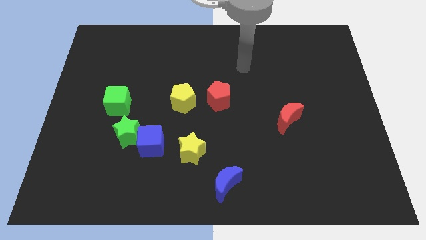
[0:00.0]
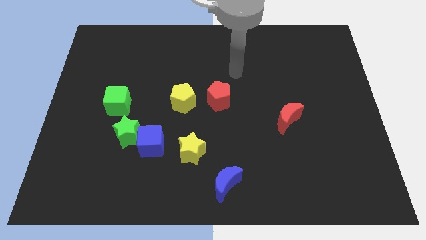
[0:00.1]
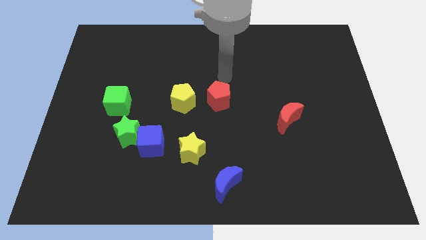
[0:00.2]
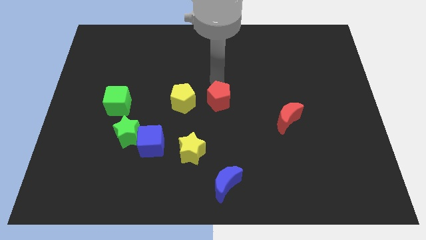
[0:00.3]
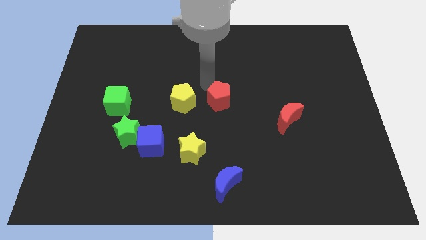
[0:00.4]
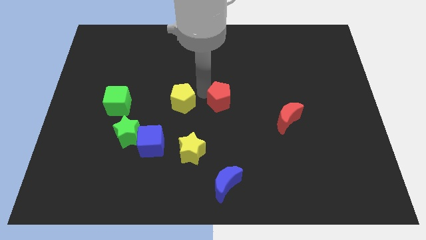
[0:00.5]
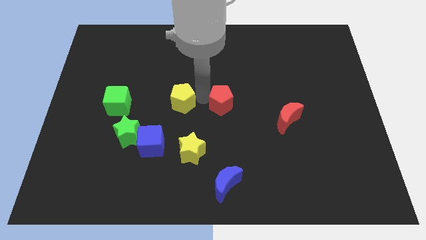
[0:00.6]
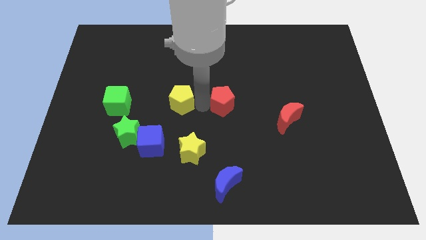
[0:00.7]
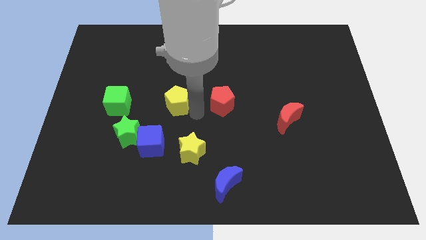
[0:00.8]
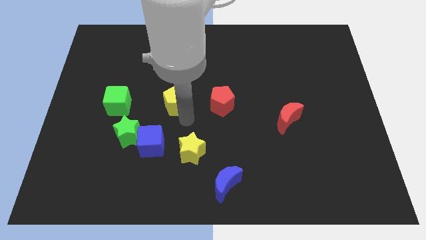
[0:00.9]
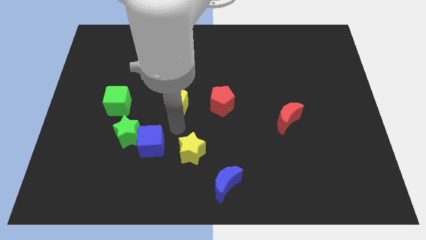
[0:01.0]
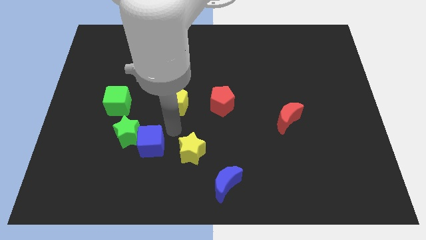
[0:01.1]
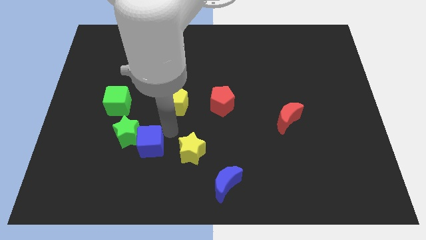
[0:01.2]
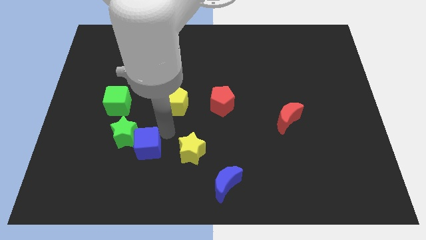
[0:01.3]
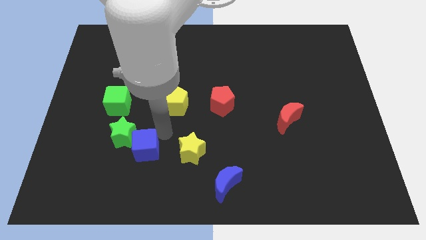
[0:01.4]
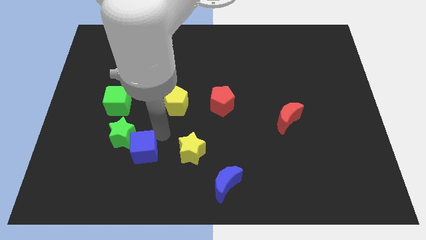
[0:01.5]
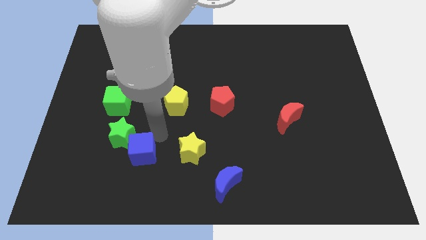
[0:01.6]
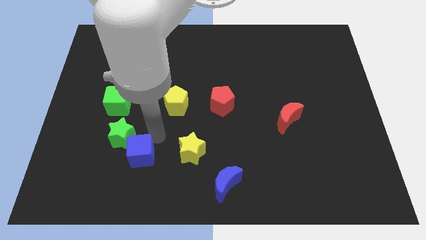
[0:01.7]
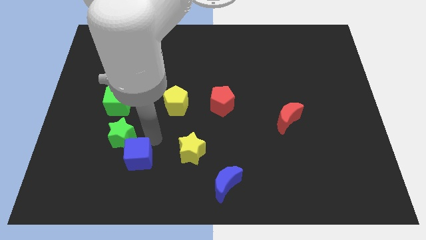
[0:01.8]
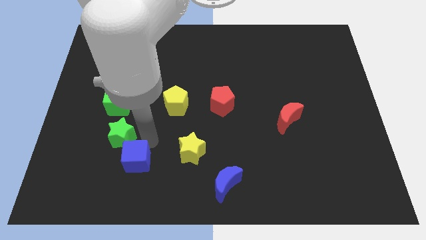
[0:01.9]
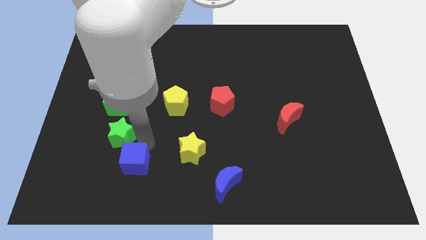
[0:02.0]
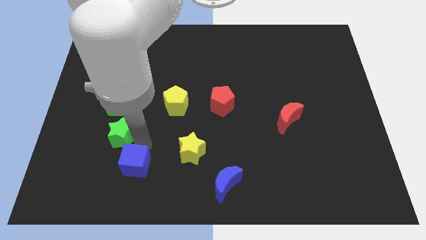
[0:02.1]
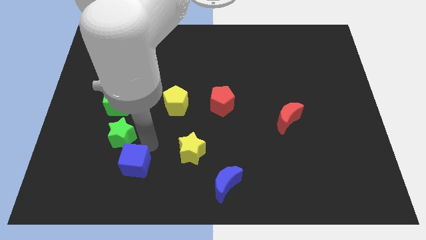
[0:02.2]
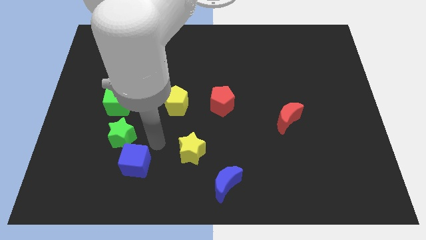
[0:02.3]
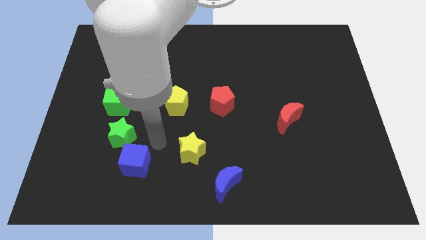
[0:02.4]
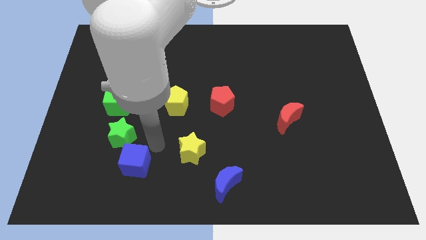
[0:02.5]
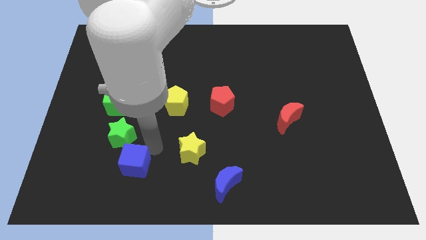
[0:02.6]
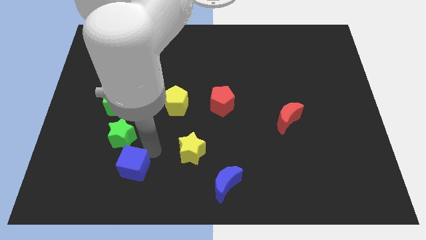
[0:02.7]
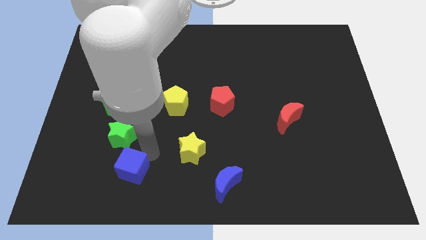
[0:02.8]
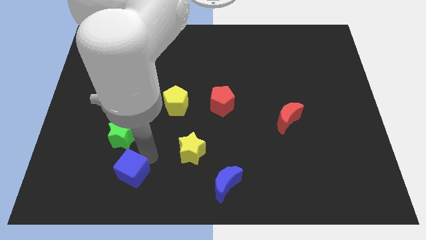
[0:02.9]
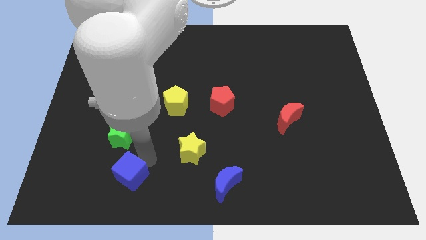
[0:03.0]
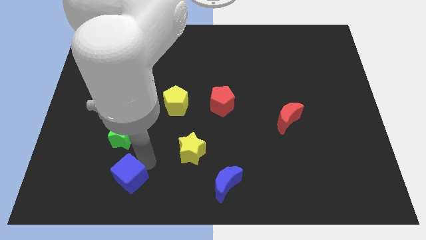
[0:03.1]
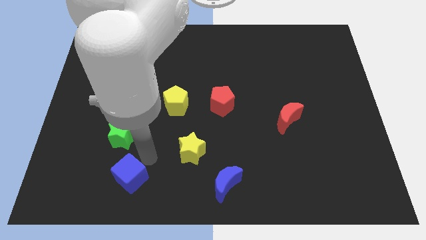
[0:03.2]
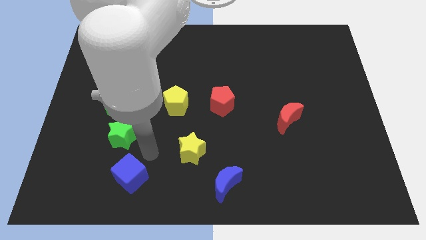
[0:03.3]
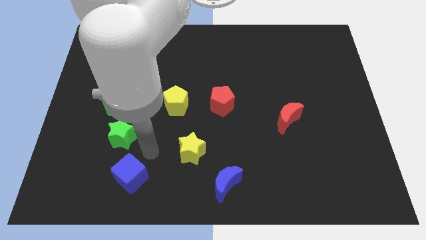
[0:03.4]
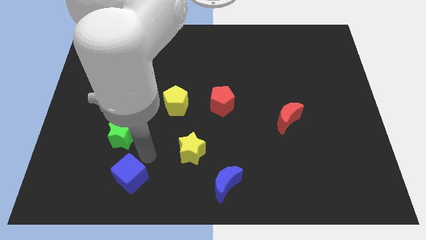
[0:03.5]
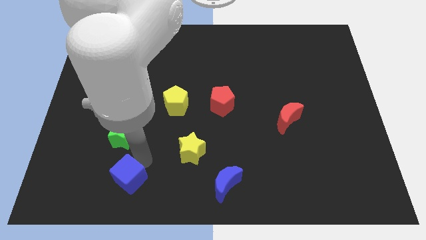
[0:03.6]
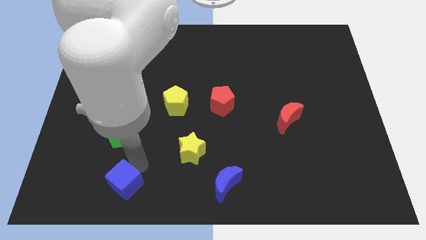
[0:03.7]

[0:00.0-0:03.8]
pull the blue cube apart from the green star and yellow star

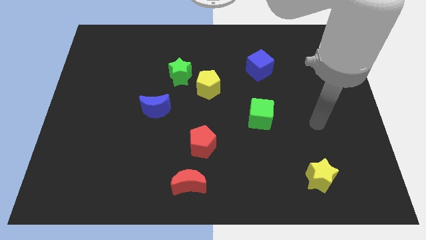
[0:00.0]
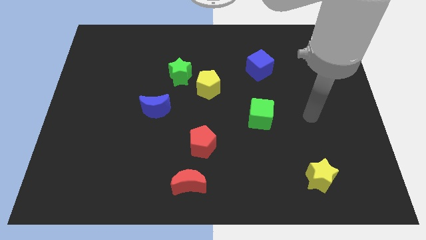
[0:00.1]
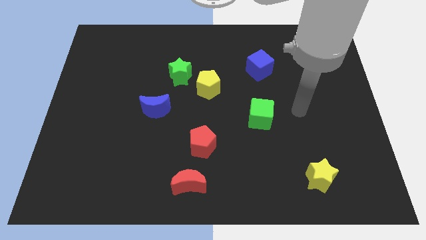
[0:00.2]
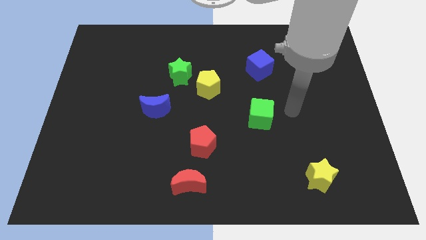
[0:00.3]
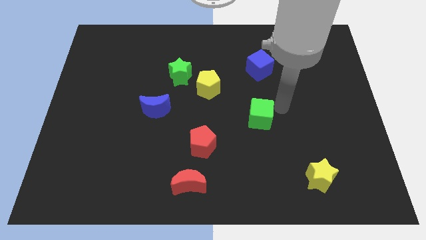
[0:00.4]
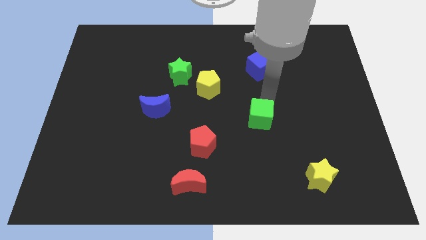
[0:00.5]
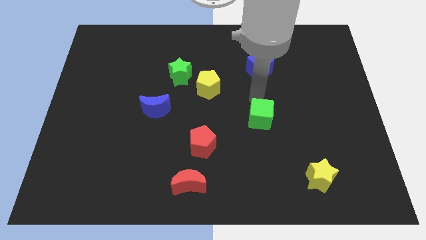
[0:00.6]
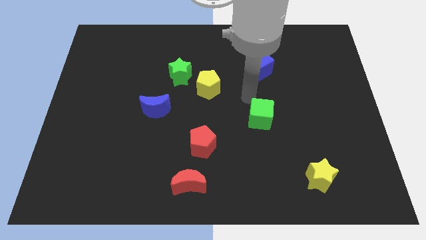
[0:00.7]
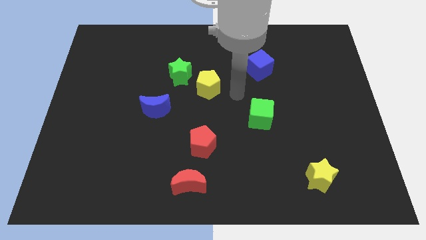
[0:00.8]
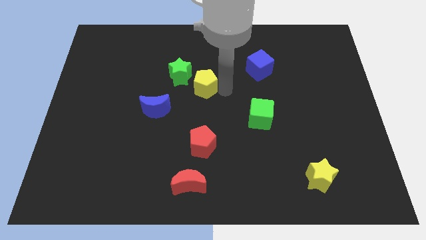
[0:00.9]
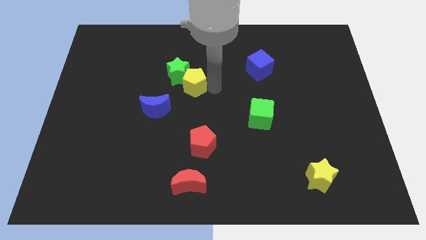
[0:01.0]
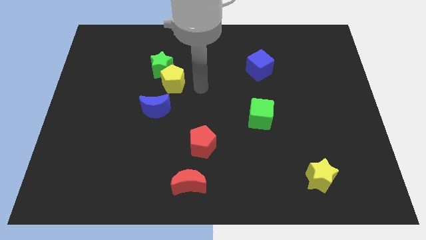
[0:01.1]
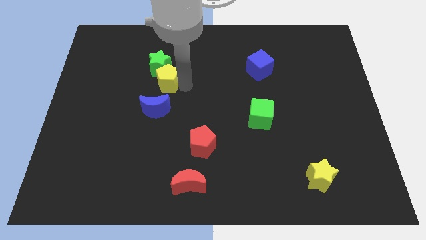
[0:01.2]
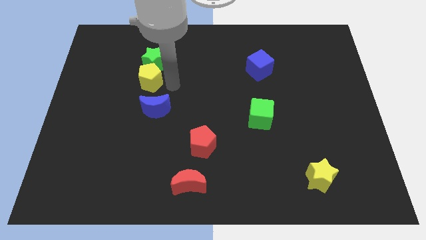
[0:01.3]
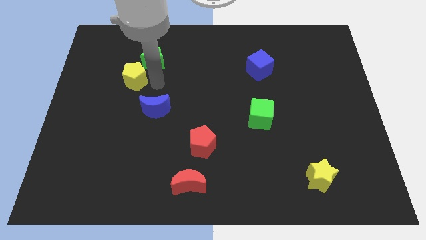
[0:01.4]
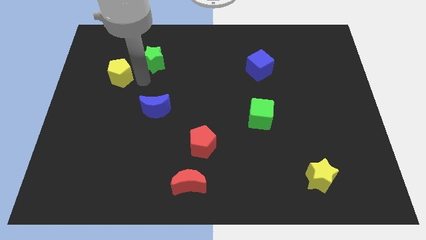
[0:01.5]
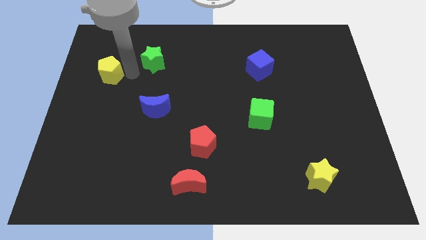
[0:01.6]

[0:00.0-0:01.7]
separate the green star from the yellow pentagon

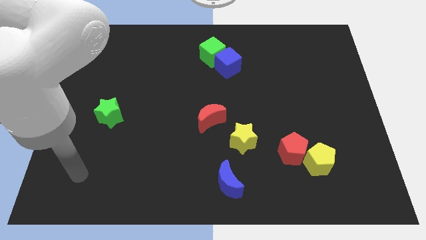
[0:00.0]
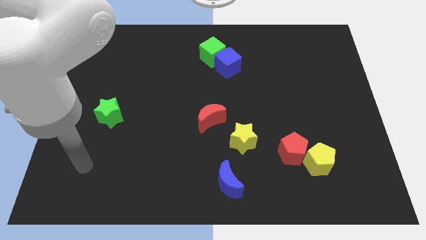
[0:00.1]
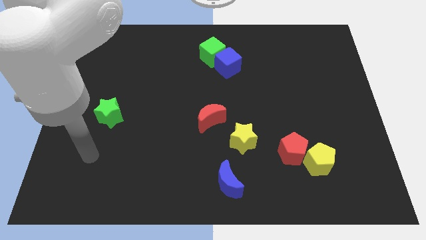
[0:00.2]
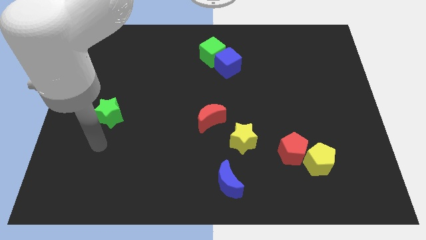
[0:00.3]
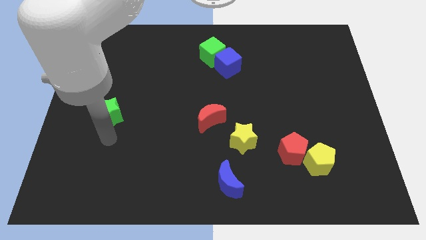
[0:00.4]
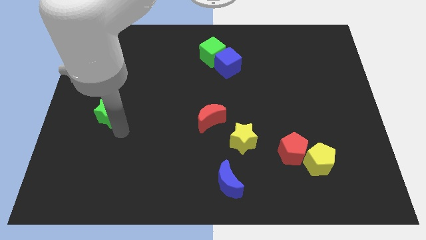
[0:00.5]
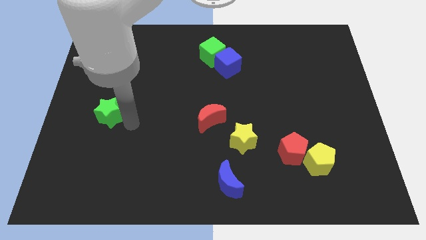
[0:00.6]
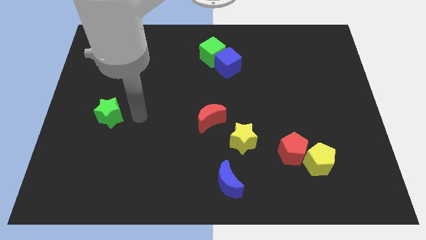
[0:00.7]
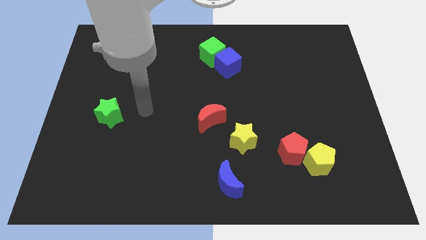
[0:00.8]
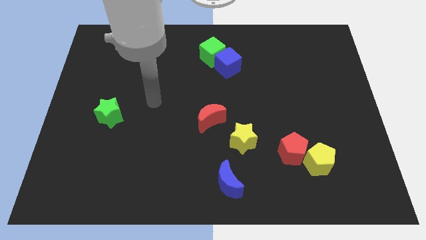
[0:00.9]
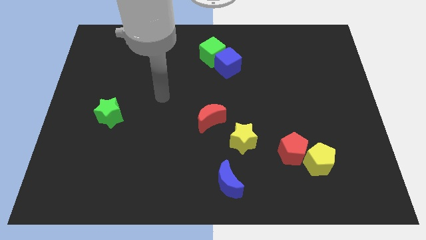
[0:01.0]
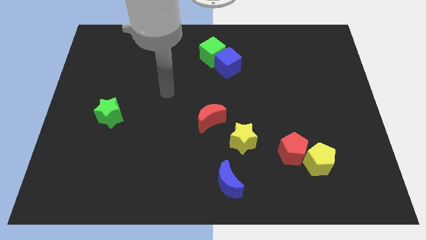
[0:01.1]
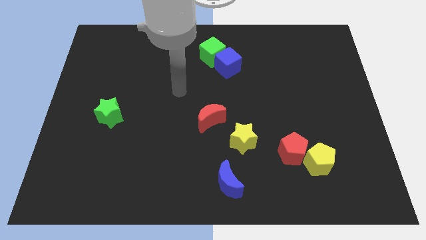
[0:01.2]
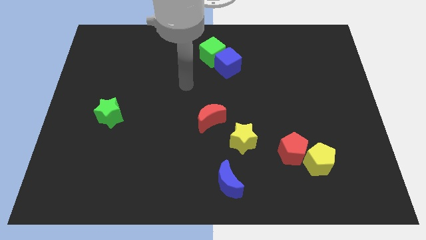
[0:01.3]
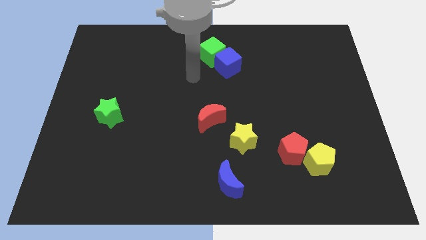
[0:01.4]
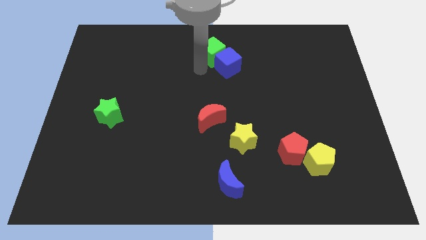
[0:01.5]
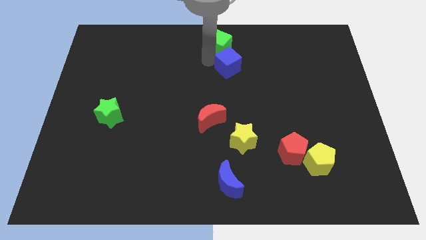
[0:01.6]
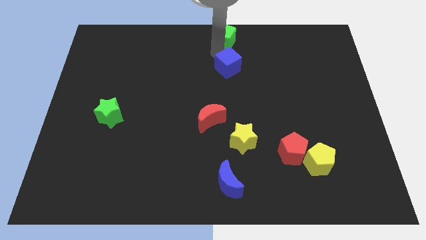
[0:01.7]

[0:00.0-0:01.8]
separate the blue cube from the green cube

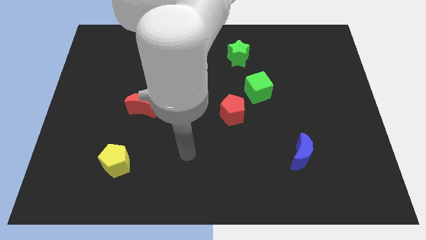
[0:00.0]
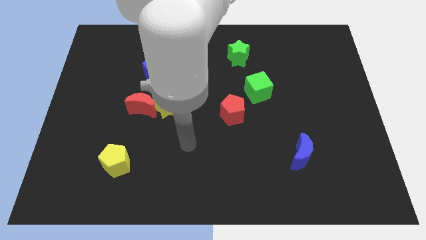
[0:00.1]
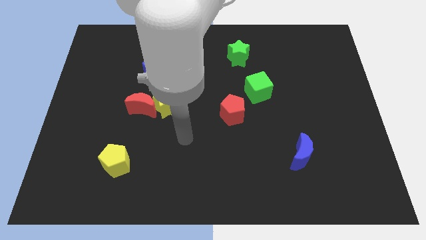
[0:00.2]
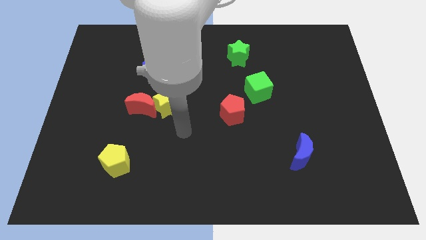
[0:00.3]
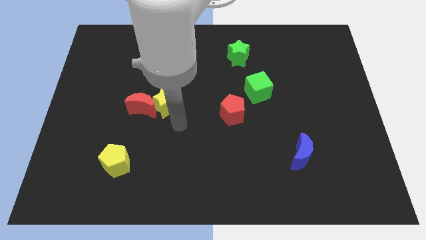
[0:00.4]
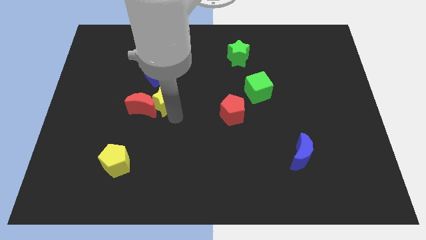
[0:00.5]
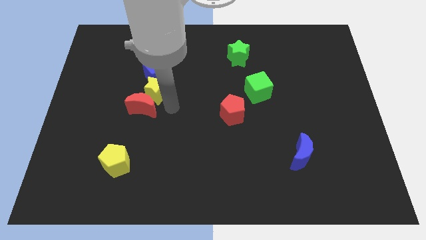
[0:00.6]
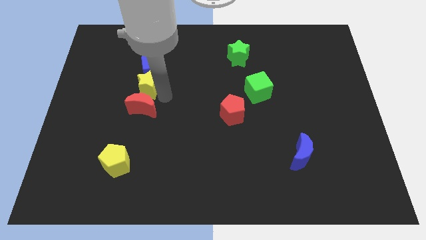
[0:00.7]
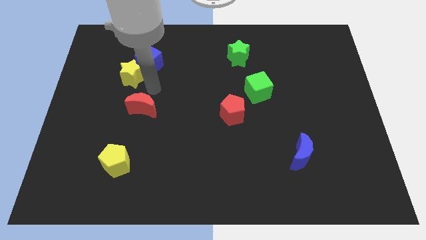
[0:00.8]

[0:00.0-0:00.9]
pull the red moon apart from the yellow star

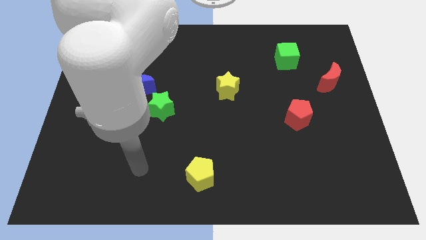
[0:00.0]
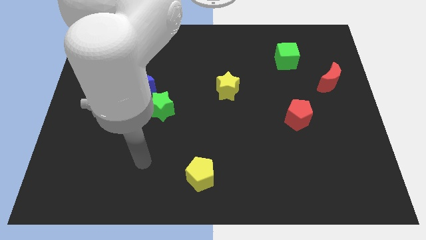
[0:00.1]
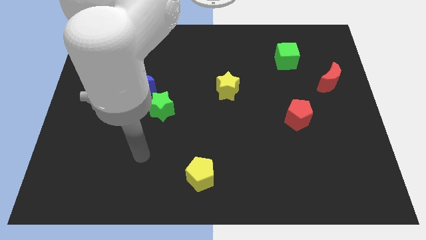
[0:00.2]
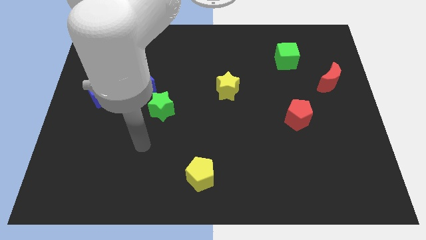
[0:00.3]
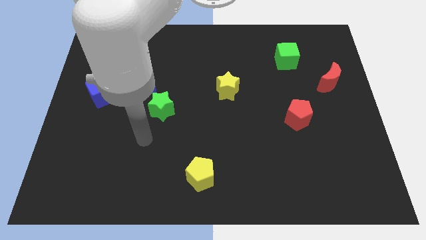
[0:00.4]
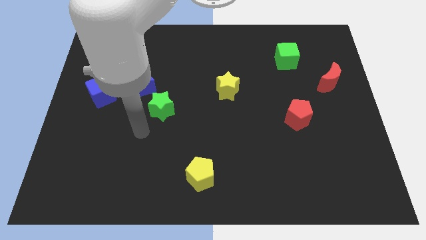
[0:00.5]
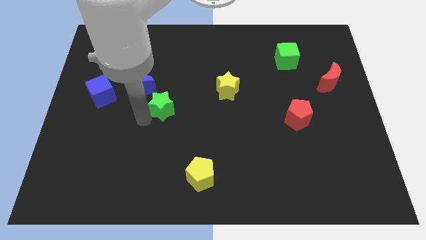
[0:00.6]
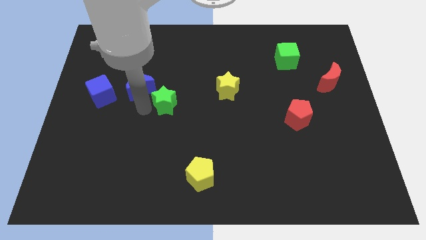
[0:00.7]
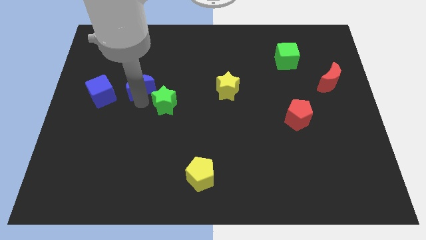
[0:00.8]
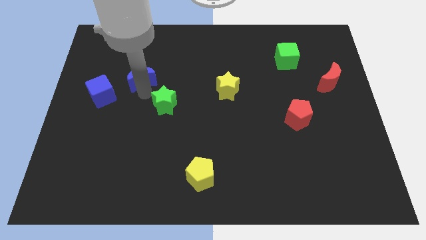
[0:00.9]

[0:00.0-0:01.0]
pull the green star apart from the blue moon
